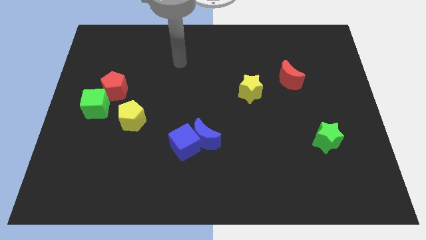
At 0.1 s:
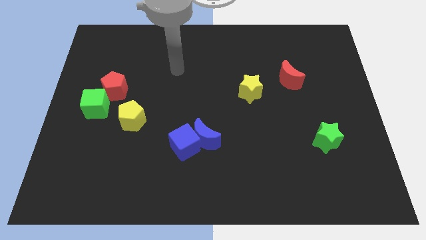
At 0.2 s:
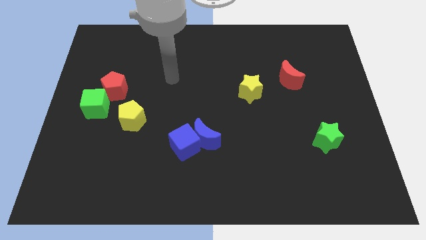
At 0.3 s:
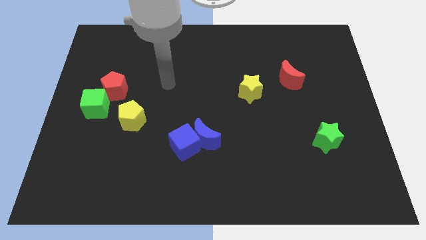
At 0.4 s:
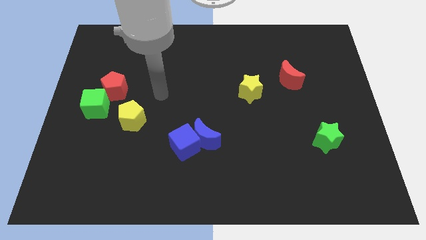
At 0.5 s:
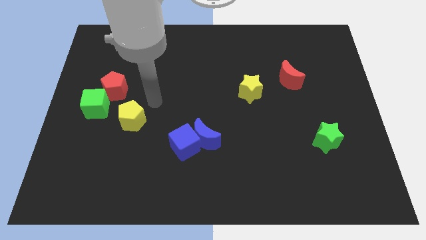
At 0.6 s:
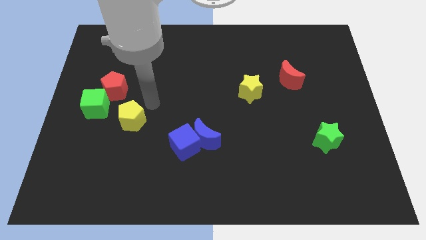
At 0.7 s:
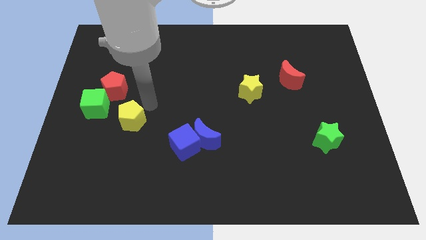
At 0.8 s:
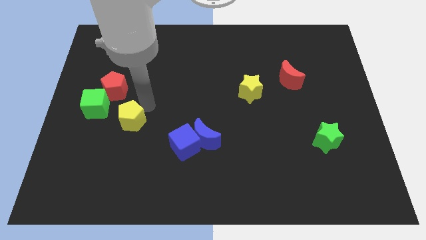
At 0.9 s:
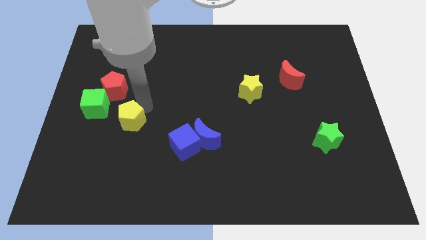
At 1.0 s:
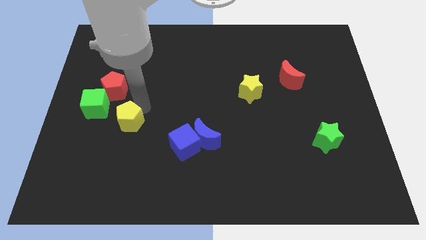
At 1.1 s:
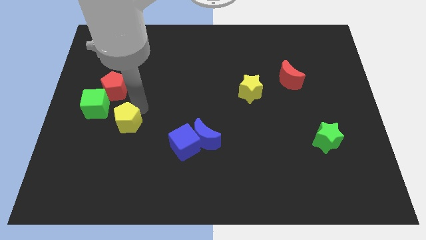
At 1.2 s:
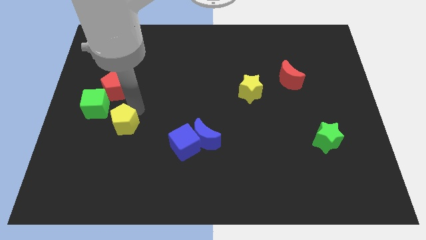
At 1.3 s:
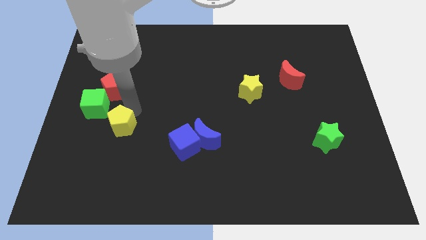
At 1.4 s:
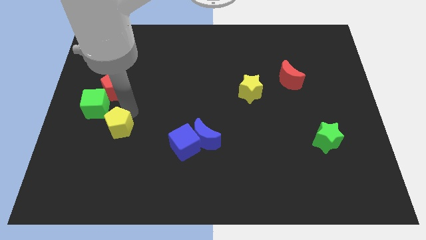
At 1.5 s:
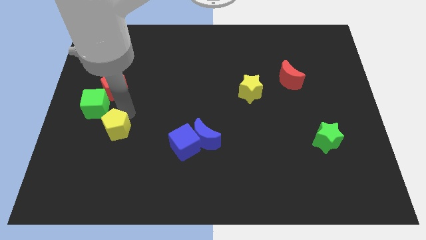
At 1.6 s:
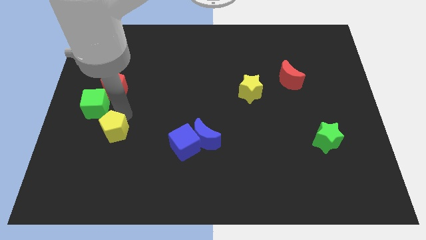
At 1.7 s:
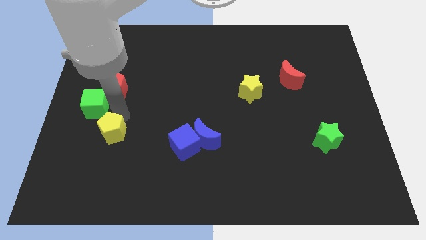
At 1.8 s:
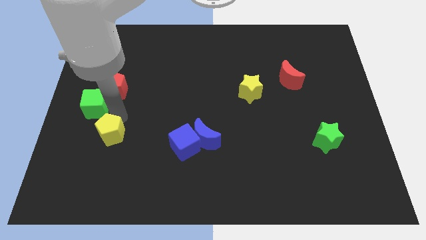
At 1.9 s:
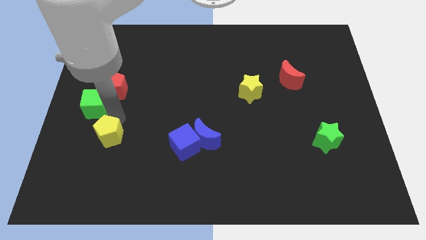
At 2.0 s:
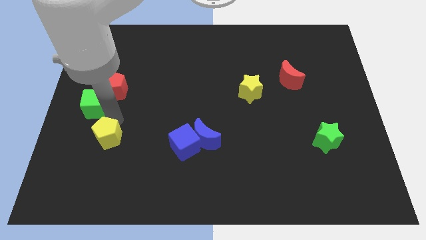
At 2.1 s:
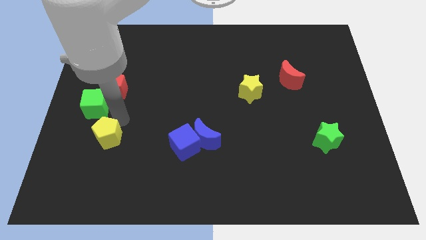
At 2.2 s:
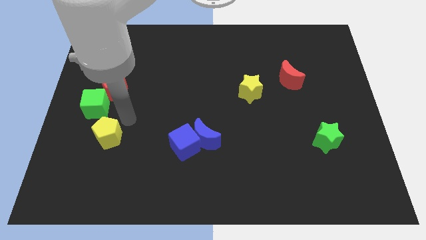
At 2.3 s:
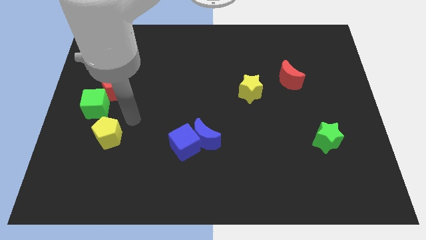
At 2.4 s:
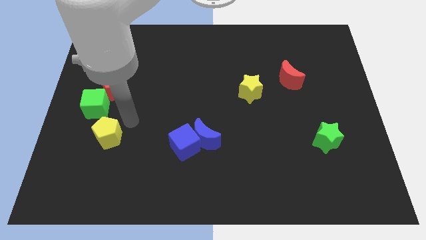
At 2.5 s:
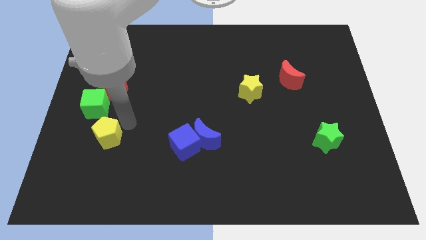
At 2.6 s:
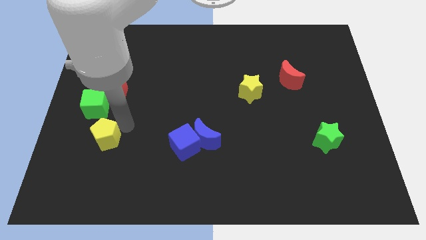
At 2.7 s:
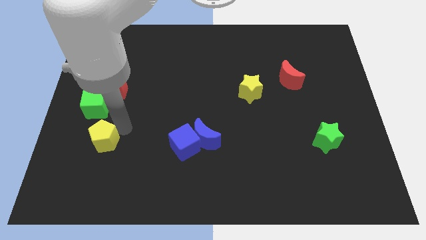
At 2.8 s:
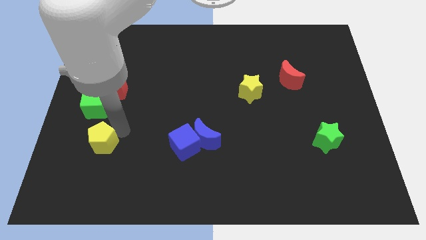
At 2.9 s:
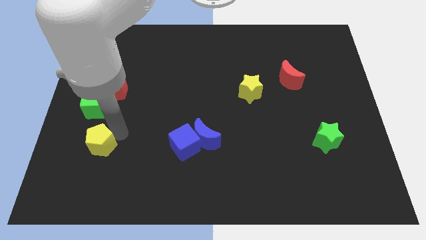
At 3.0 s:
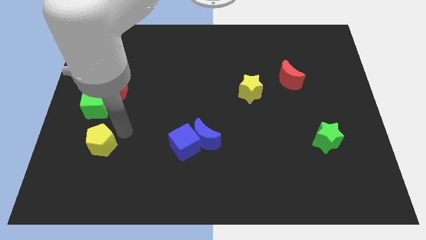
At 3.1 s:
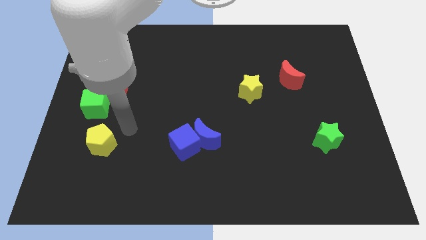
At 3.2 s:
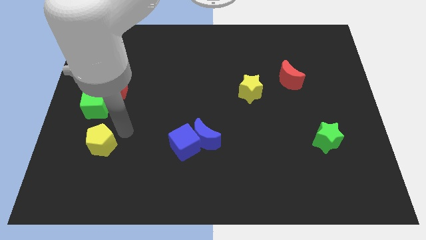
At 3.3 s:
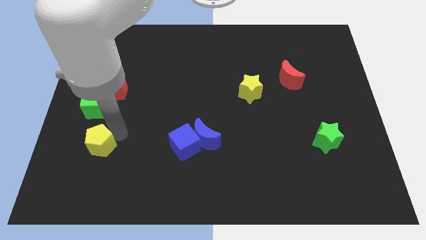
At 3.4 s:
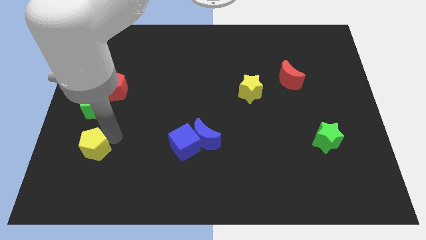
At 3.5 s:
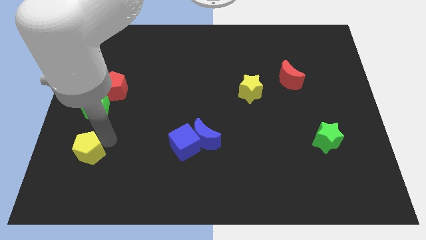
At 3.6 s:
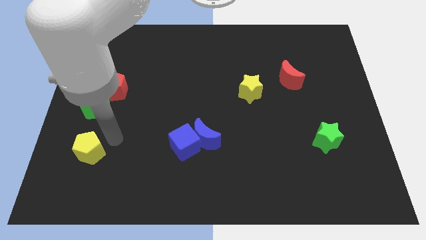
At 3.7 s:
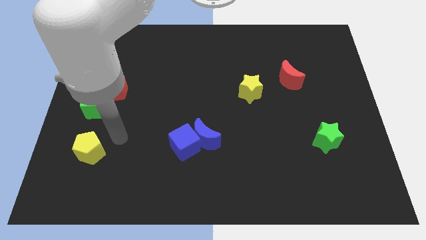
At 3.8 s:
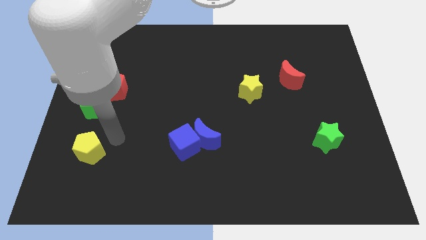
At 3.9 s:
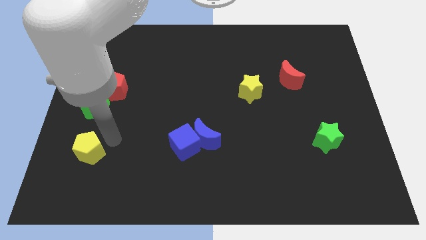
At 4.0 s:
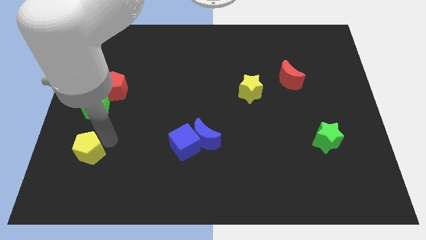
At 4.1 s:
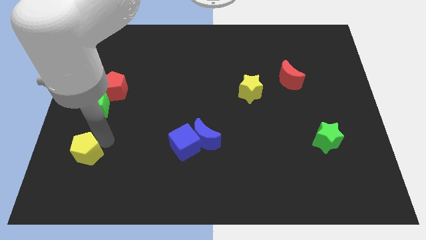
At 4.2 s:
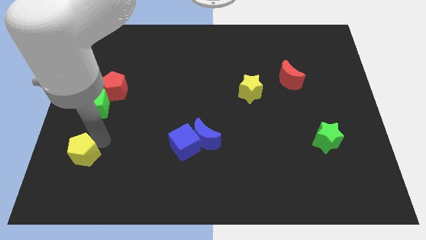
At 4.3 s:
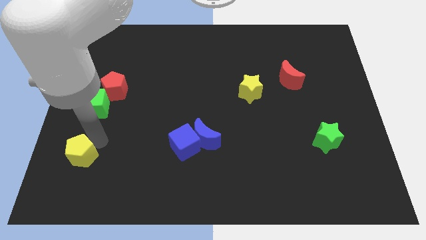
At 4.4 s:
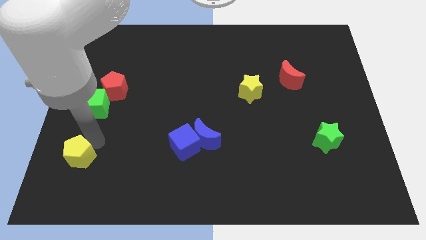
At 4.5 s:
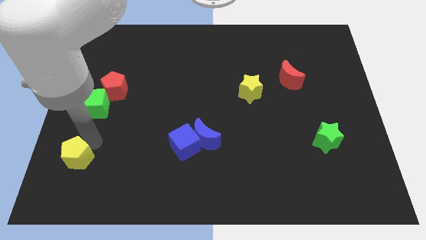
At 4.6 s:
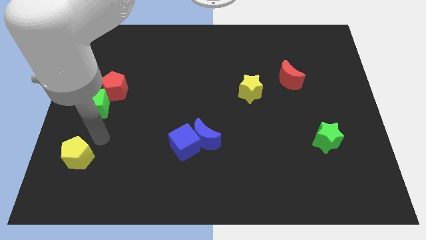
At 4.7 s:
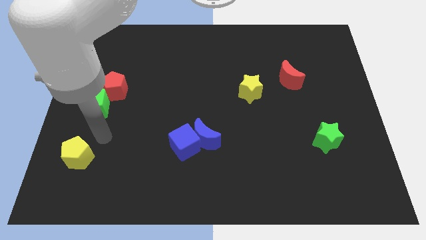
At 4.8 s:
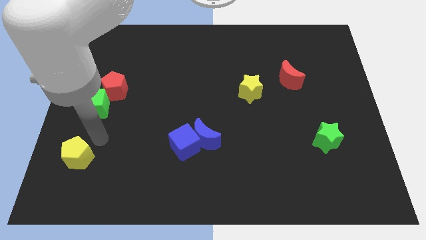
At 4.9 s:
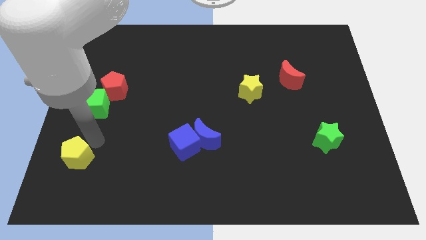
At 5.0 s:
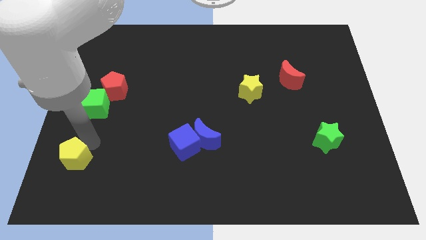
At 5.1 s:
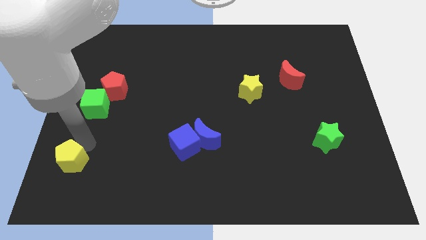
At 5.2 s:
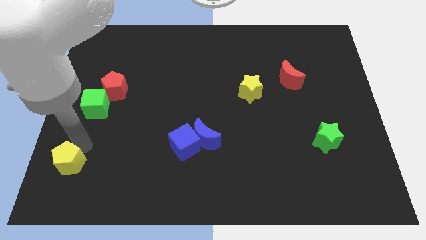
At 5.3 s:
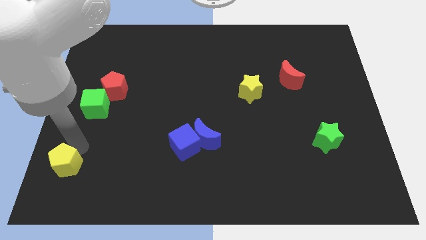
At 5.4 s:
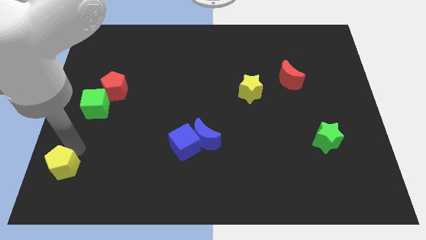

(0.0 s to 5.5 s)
put the yellow pentagon to the bottom left corner
